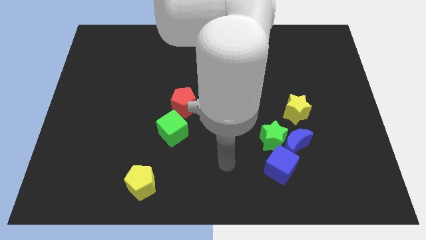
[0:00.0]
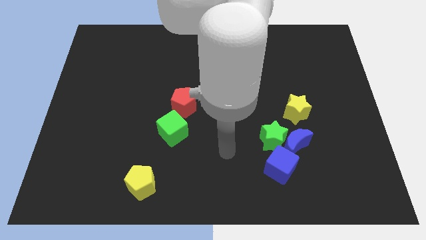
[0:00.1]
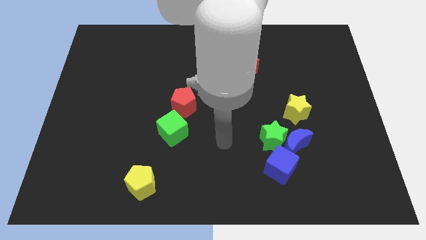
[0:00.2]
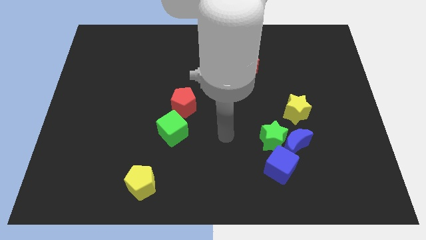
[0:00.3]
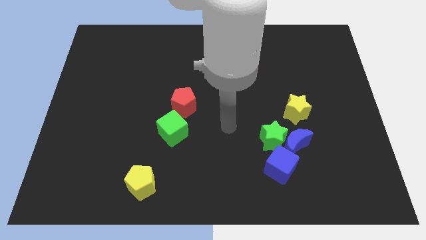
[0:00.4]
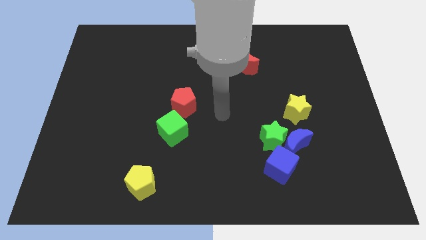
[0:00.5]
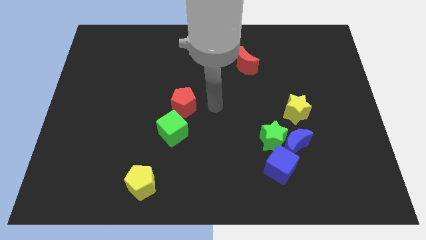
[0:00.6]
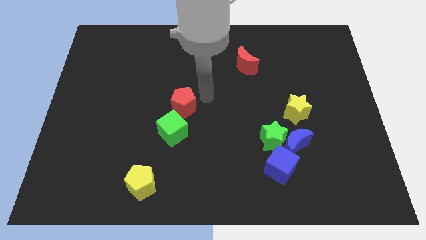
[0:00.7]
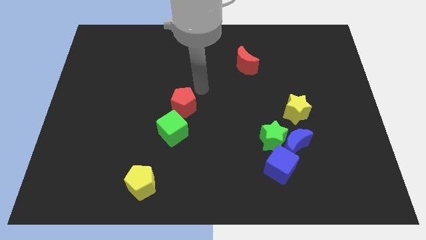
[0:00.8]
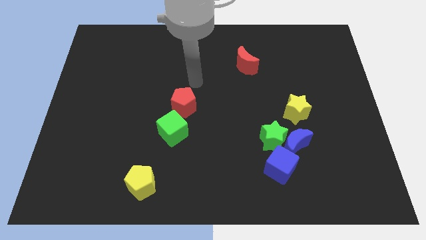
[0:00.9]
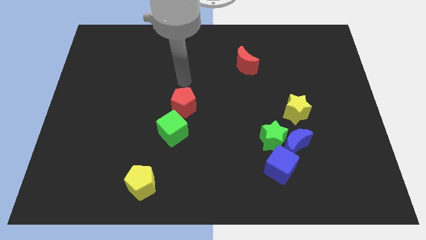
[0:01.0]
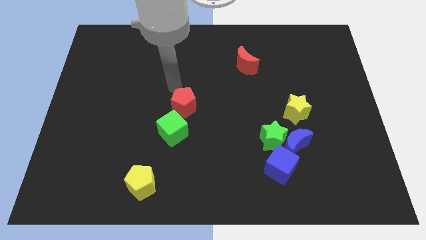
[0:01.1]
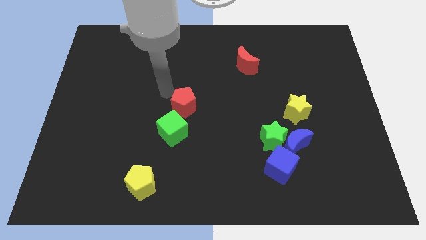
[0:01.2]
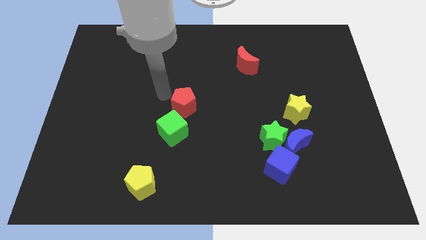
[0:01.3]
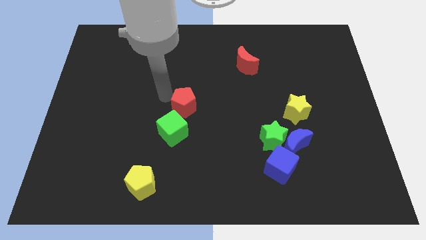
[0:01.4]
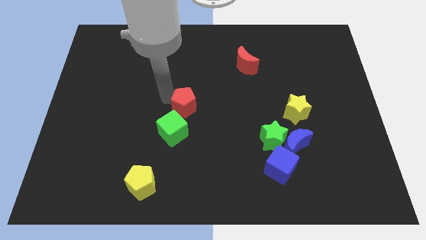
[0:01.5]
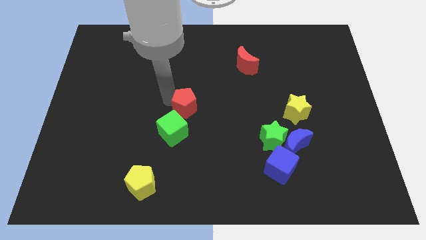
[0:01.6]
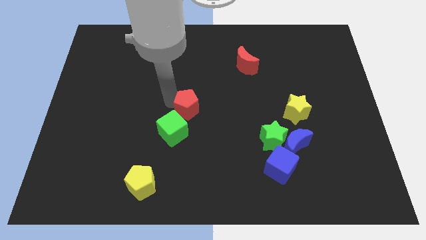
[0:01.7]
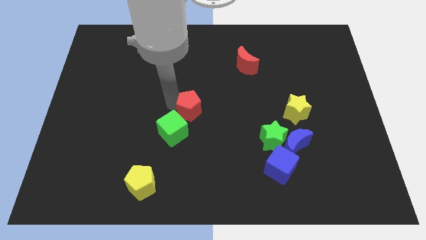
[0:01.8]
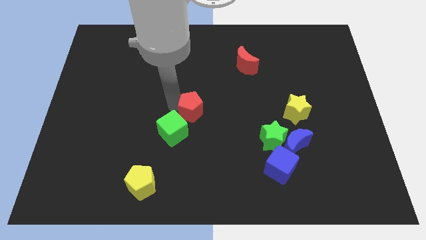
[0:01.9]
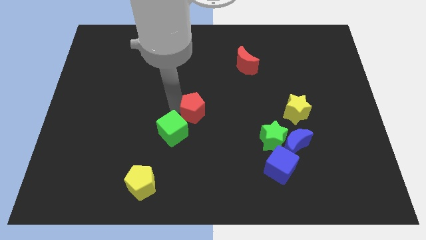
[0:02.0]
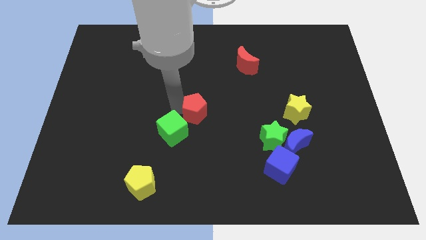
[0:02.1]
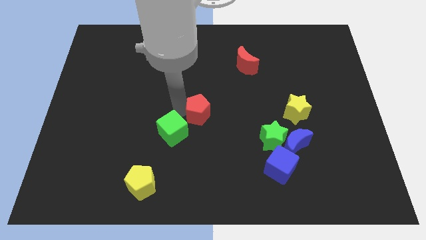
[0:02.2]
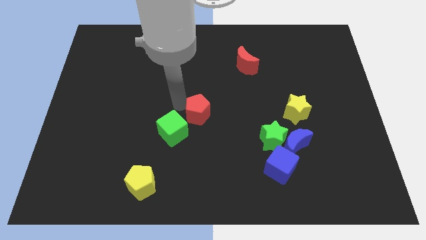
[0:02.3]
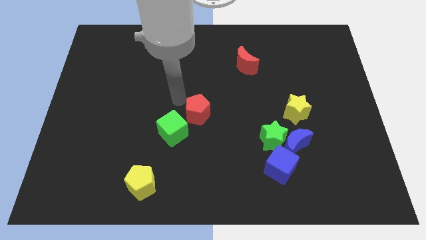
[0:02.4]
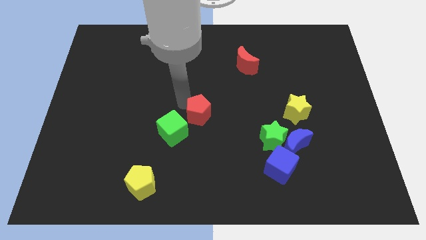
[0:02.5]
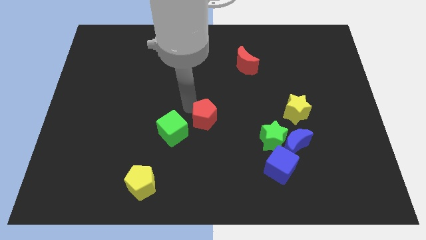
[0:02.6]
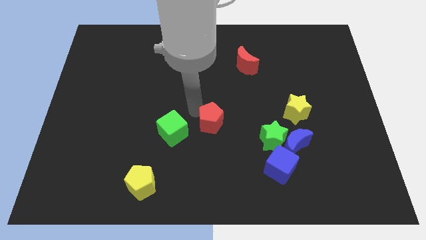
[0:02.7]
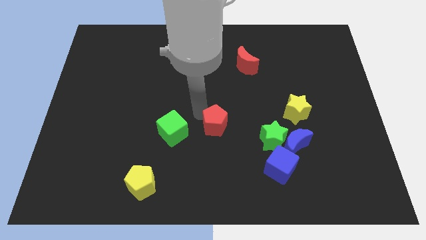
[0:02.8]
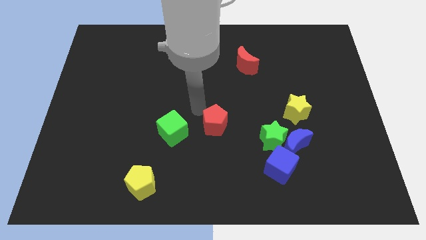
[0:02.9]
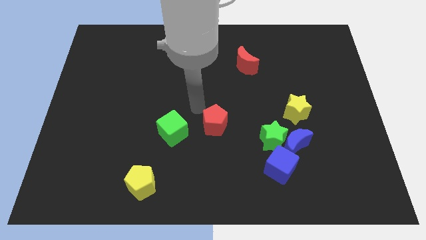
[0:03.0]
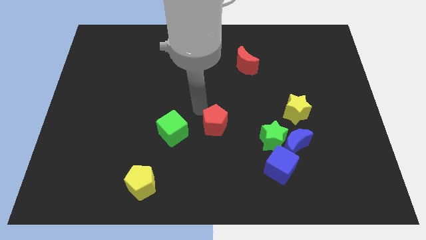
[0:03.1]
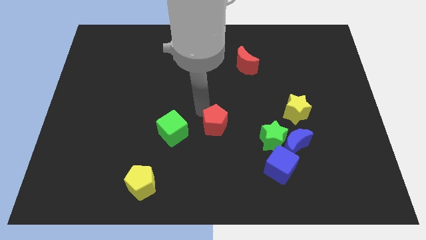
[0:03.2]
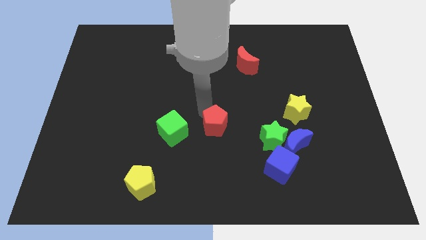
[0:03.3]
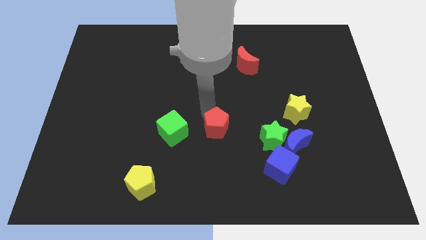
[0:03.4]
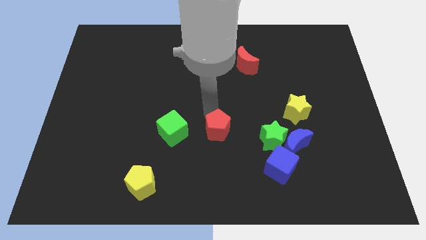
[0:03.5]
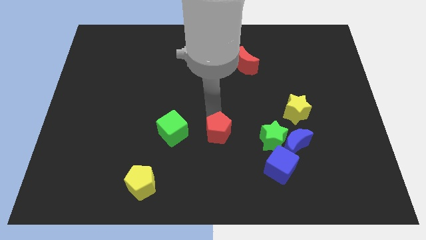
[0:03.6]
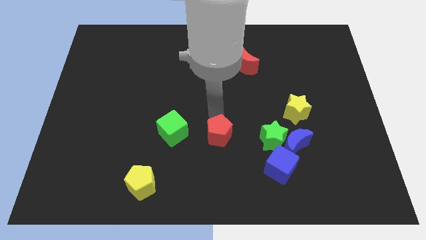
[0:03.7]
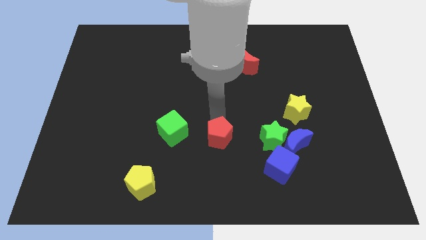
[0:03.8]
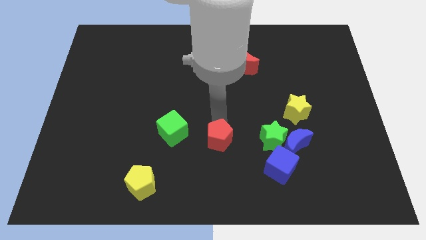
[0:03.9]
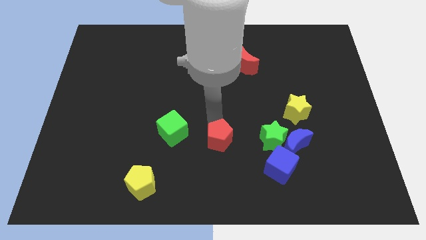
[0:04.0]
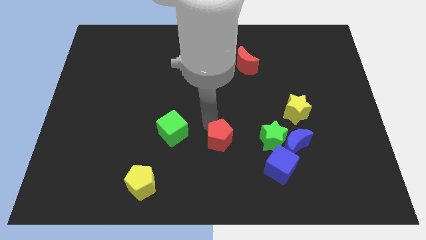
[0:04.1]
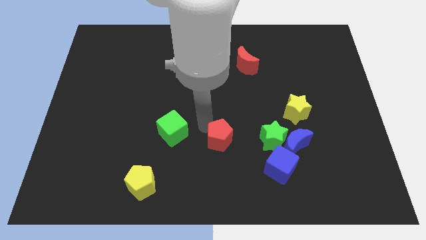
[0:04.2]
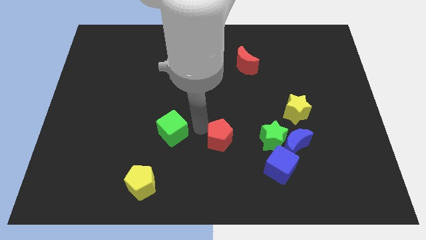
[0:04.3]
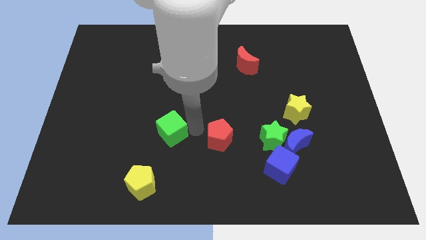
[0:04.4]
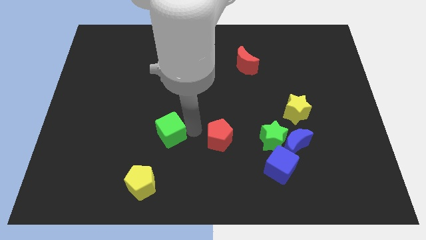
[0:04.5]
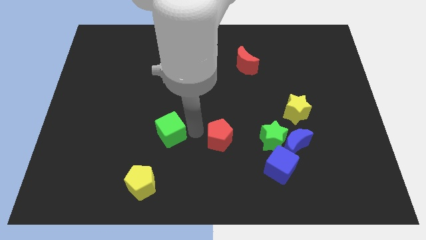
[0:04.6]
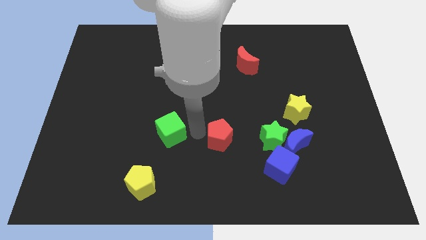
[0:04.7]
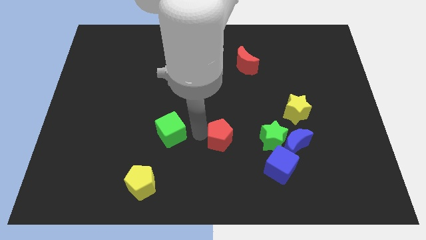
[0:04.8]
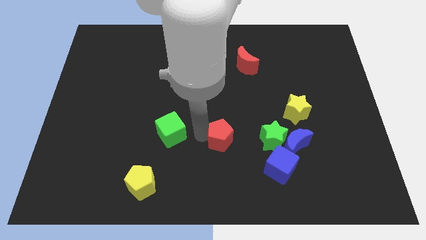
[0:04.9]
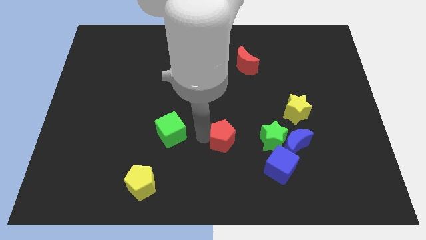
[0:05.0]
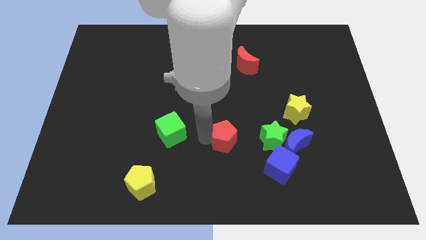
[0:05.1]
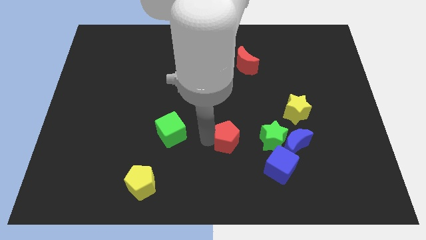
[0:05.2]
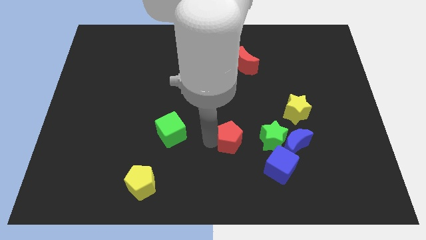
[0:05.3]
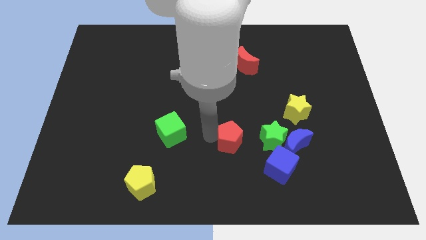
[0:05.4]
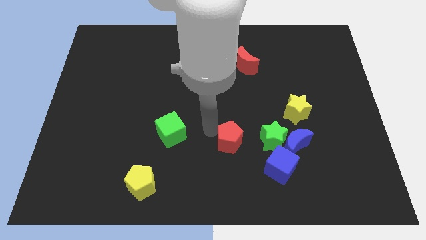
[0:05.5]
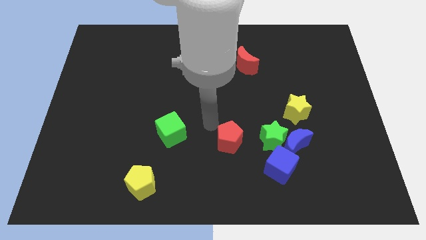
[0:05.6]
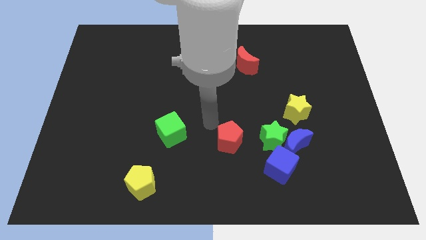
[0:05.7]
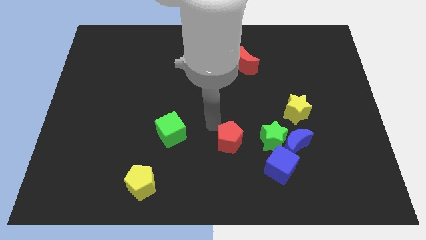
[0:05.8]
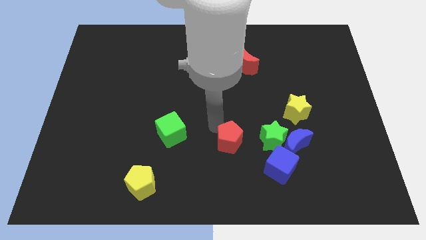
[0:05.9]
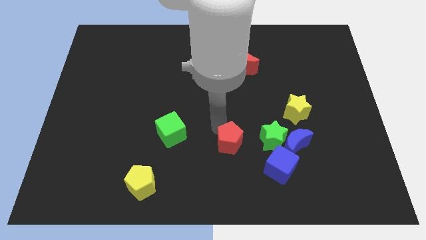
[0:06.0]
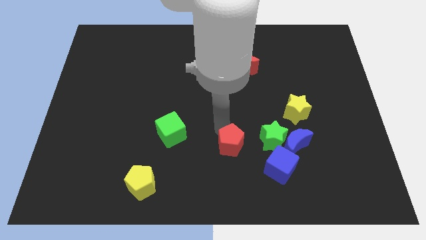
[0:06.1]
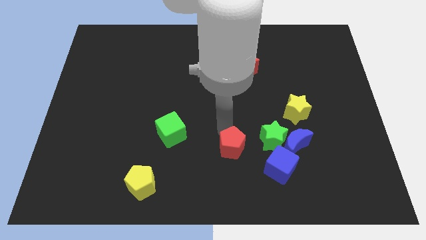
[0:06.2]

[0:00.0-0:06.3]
slide the red pentagon to the bottom left side of the green star

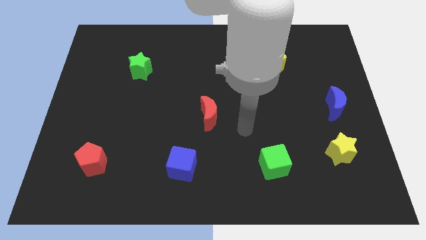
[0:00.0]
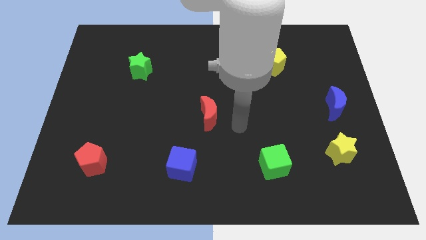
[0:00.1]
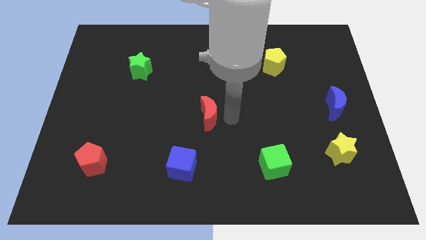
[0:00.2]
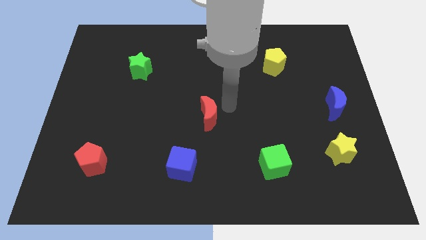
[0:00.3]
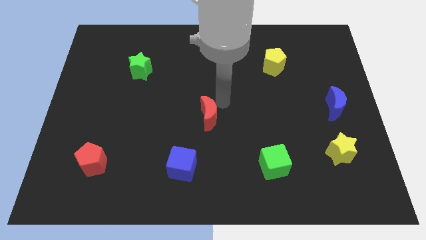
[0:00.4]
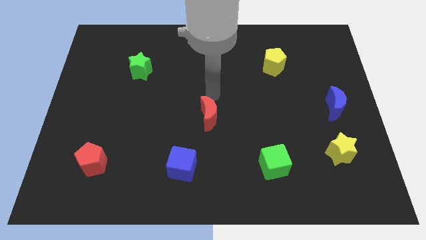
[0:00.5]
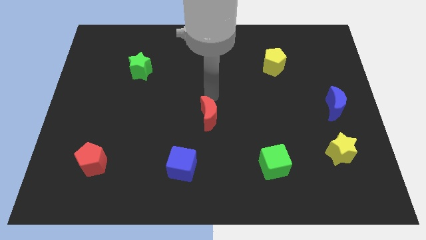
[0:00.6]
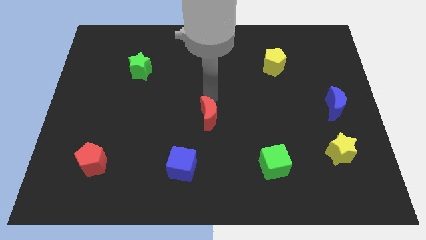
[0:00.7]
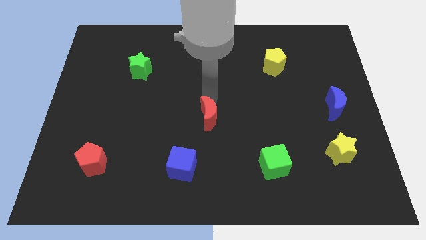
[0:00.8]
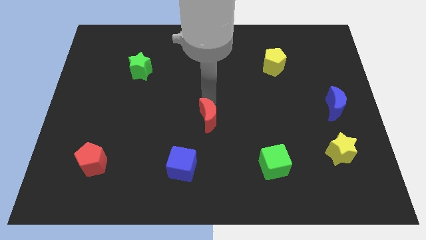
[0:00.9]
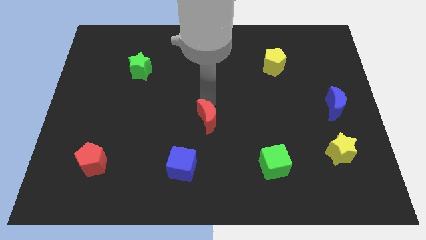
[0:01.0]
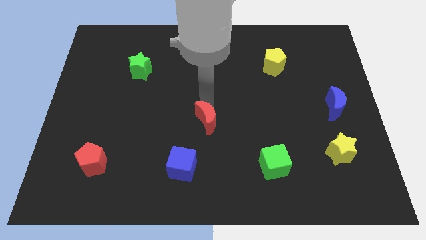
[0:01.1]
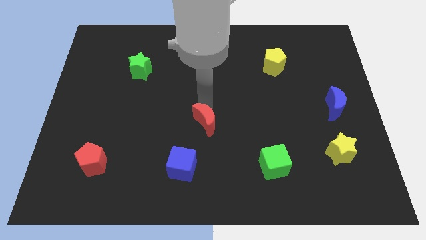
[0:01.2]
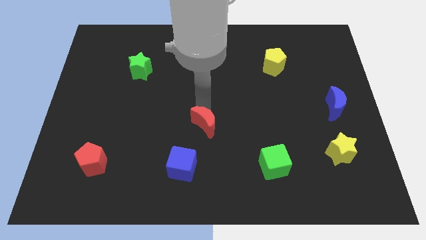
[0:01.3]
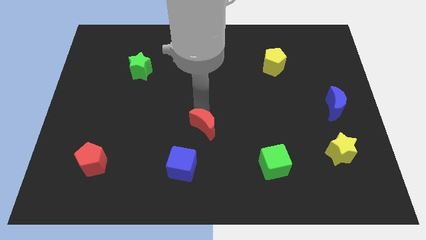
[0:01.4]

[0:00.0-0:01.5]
slide the red moon to the top right of the blue cube
